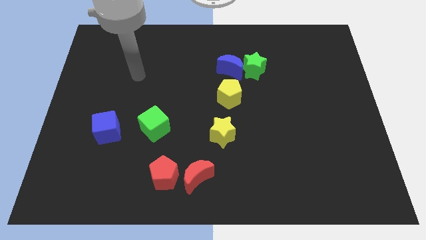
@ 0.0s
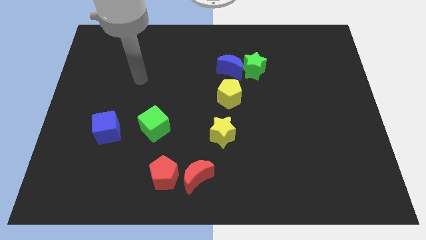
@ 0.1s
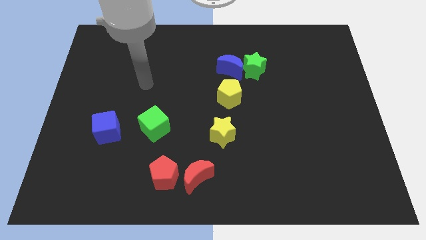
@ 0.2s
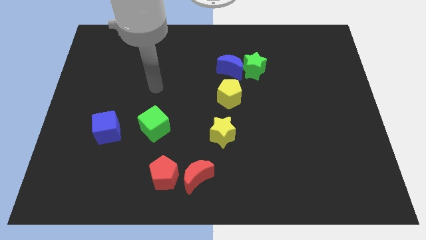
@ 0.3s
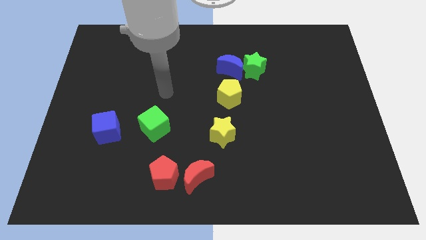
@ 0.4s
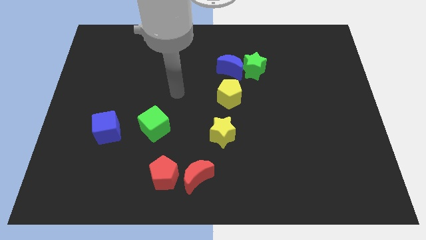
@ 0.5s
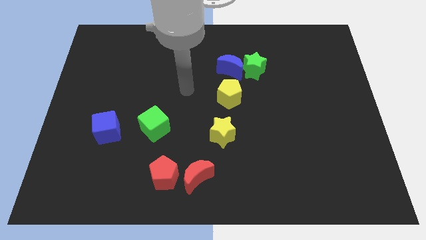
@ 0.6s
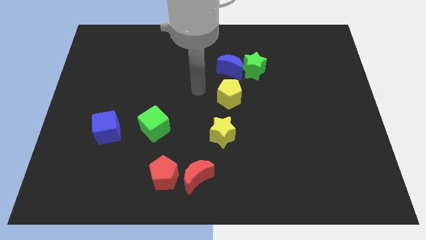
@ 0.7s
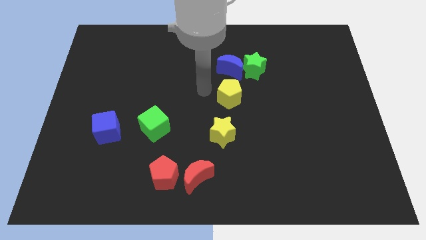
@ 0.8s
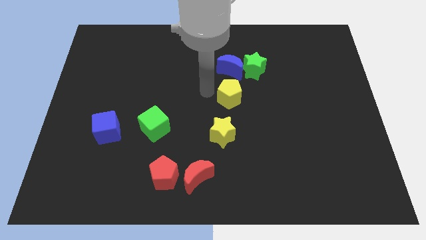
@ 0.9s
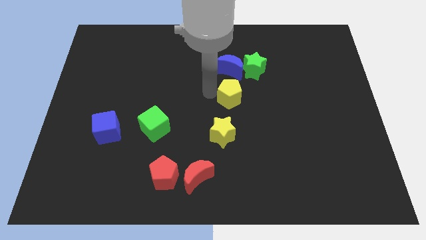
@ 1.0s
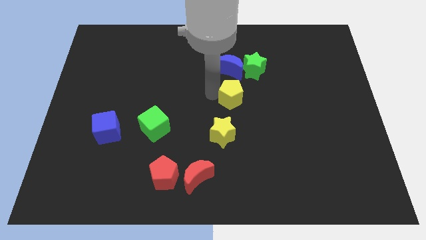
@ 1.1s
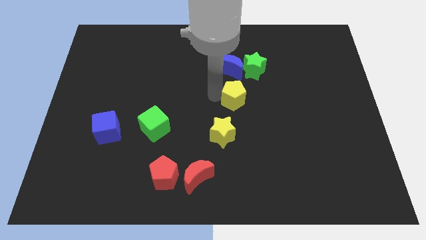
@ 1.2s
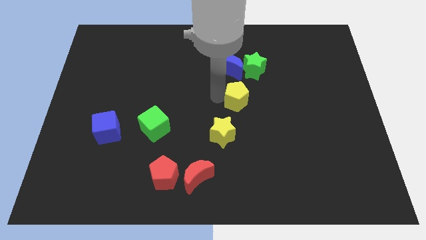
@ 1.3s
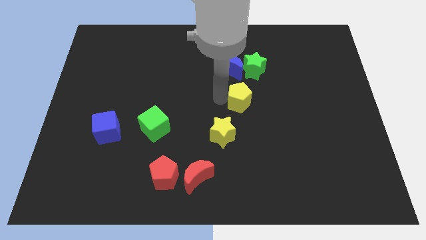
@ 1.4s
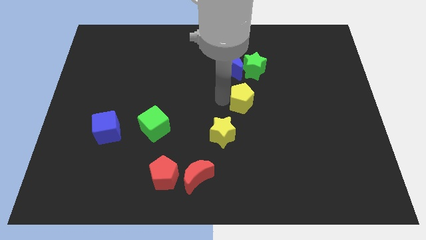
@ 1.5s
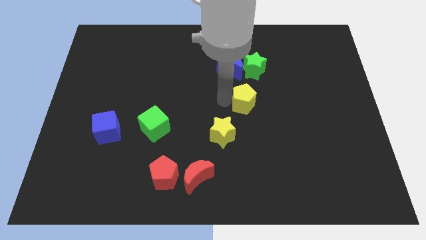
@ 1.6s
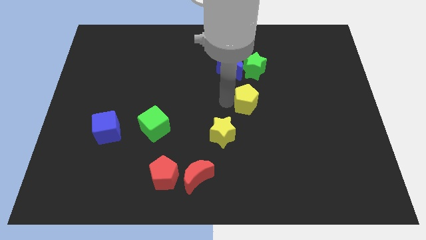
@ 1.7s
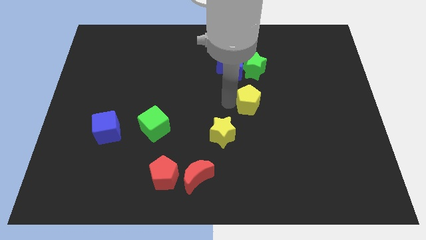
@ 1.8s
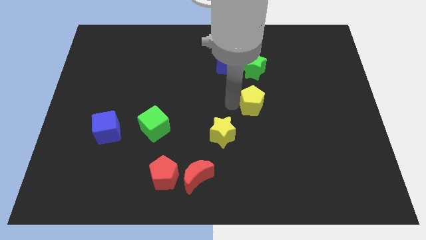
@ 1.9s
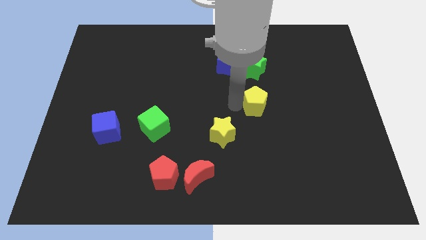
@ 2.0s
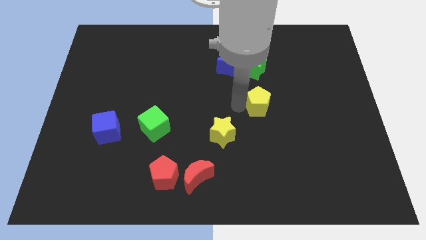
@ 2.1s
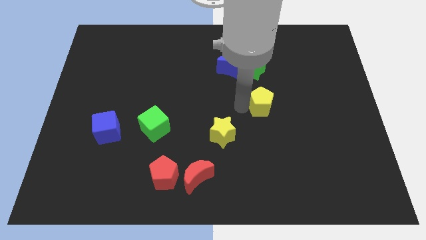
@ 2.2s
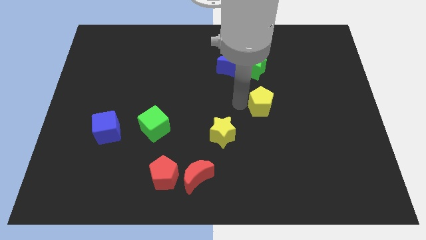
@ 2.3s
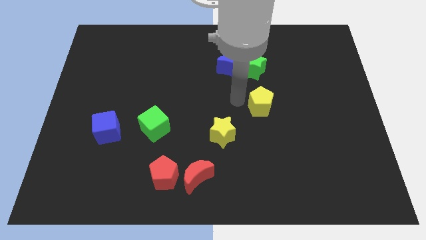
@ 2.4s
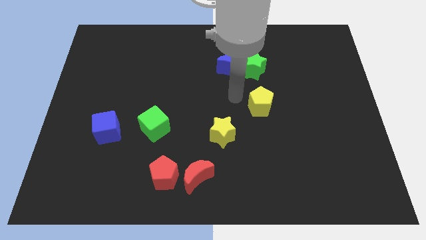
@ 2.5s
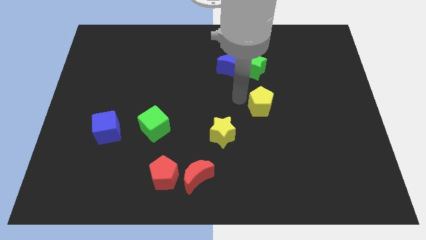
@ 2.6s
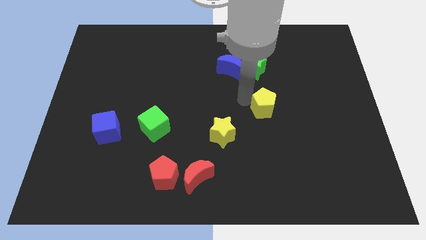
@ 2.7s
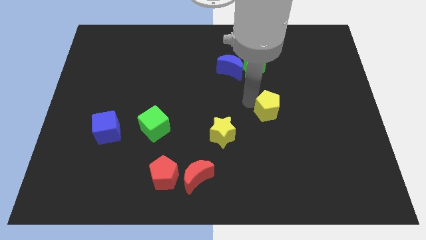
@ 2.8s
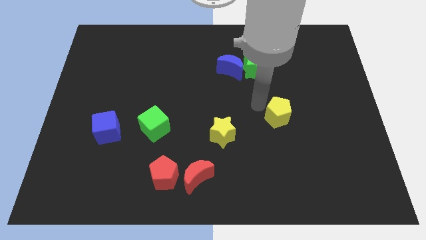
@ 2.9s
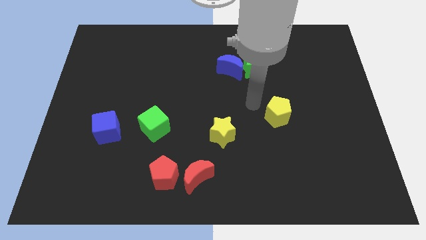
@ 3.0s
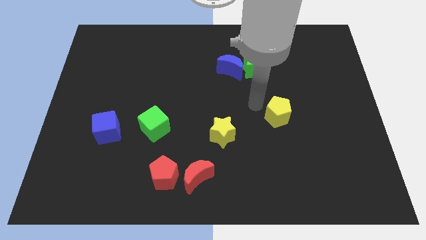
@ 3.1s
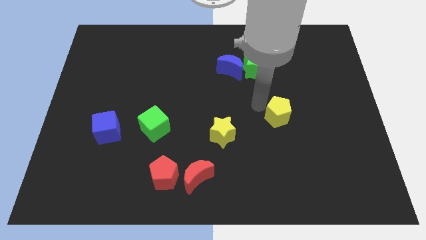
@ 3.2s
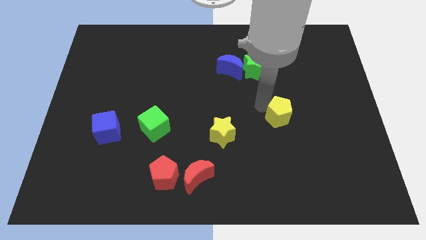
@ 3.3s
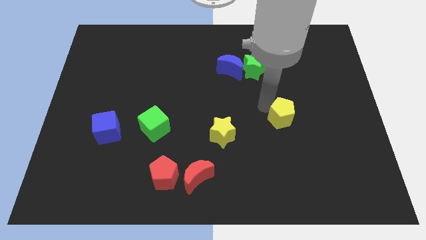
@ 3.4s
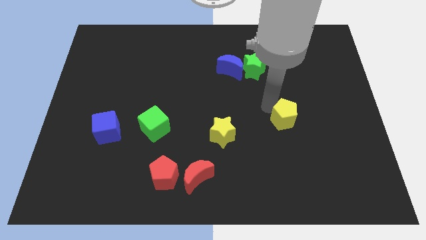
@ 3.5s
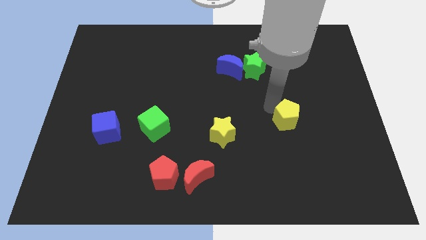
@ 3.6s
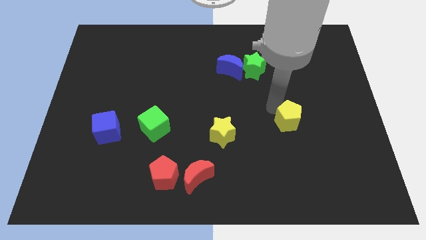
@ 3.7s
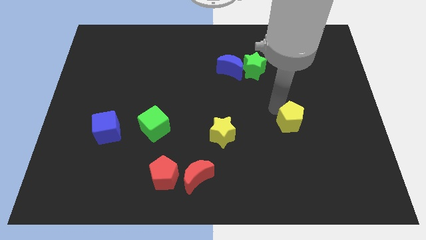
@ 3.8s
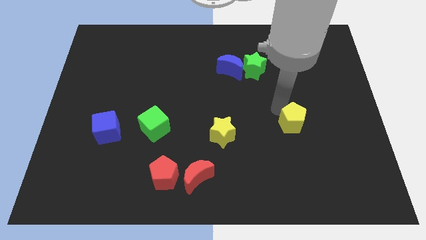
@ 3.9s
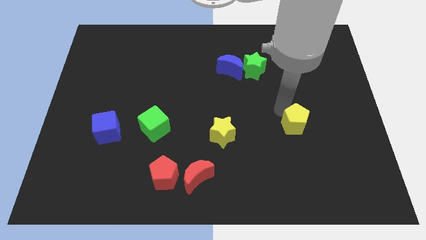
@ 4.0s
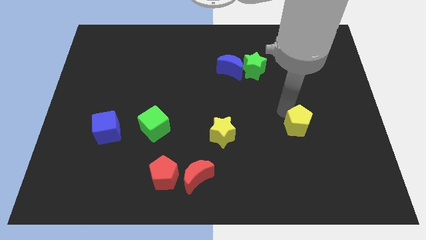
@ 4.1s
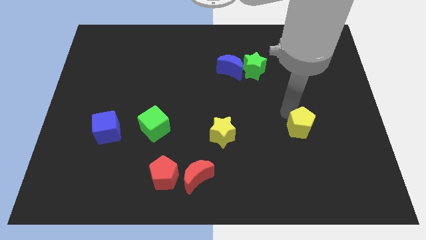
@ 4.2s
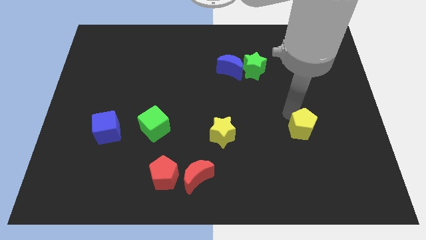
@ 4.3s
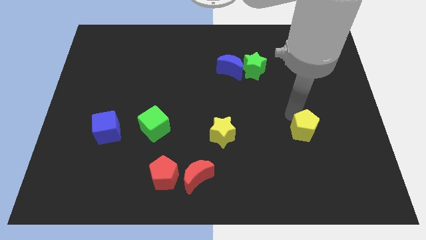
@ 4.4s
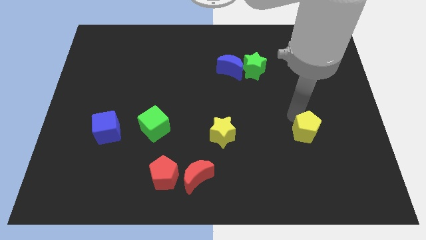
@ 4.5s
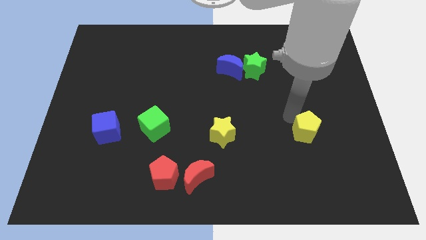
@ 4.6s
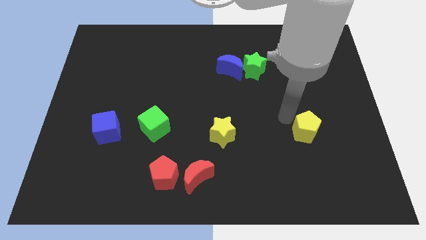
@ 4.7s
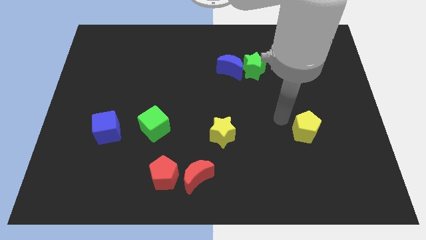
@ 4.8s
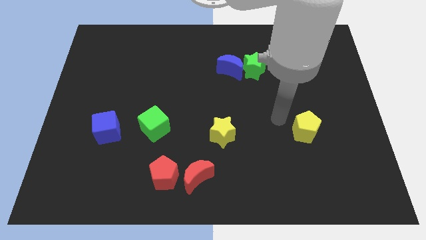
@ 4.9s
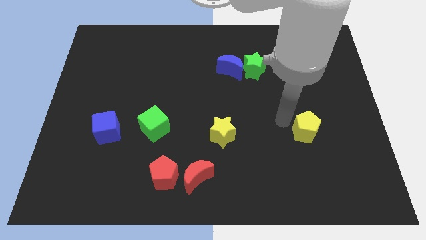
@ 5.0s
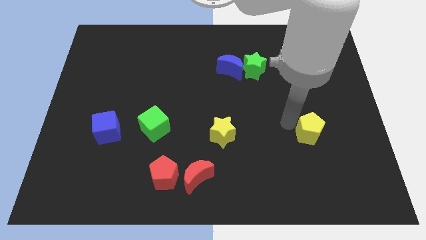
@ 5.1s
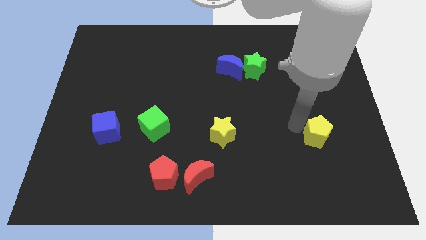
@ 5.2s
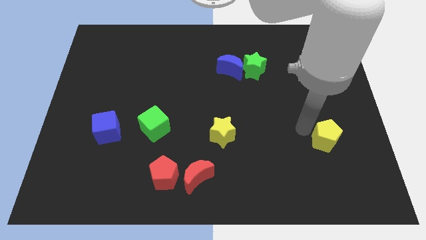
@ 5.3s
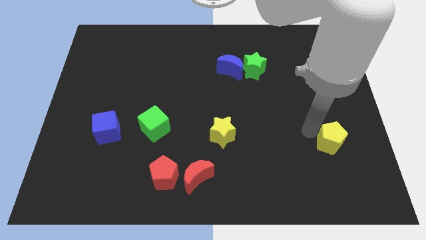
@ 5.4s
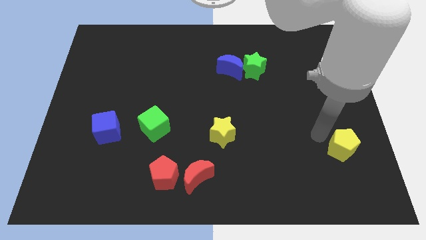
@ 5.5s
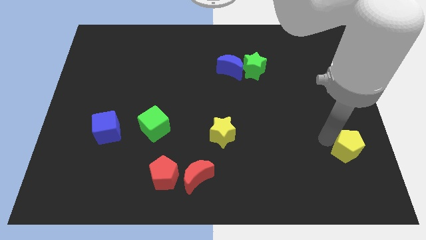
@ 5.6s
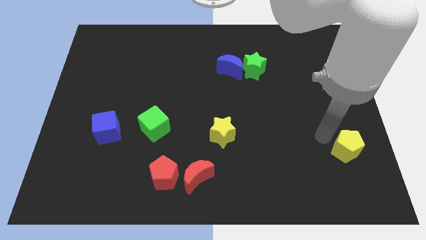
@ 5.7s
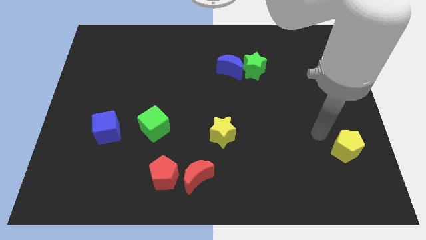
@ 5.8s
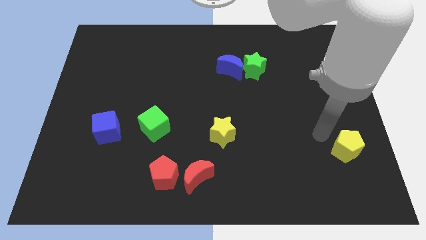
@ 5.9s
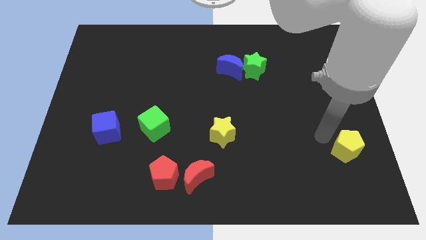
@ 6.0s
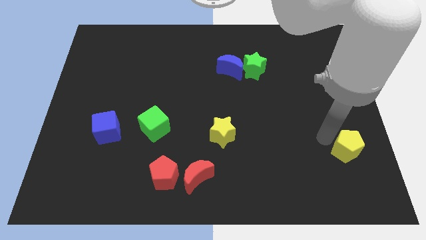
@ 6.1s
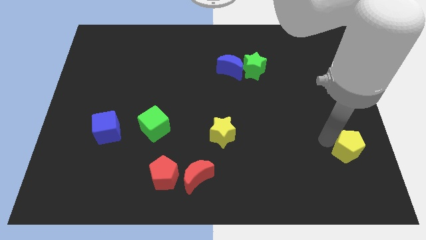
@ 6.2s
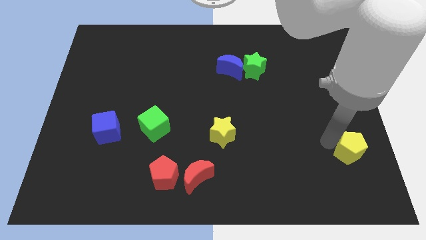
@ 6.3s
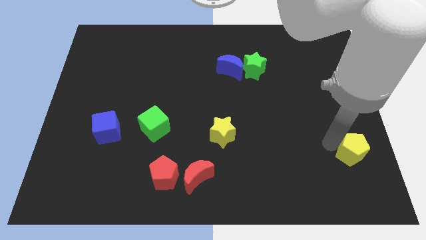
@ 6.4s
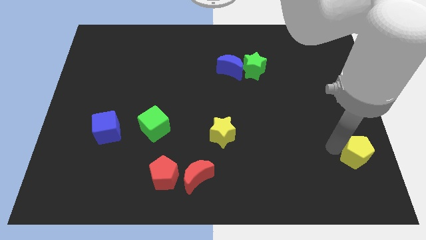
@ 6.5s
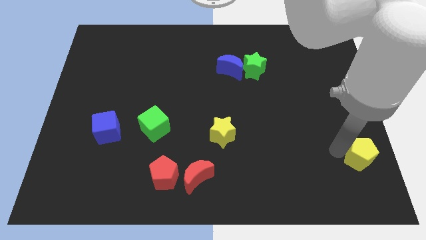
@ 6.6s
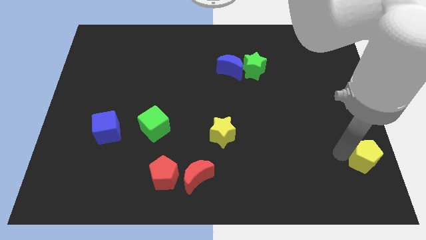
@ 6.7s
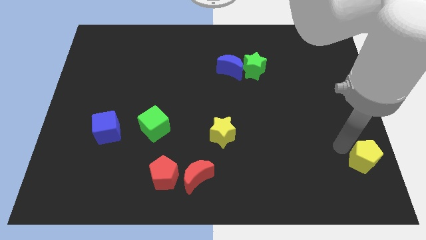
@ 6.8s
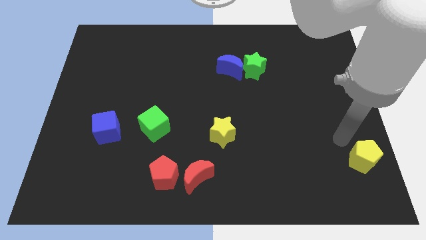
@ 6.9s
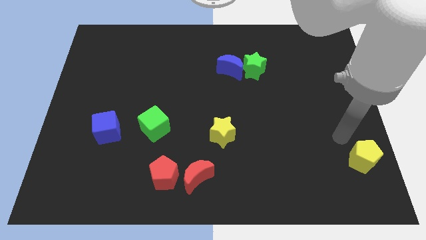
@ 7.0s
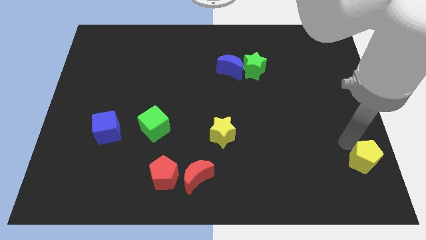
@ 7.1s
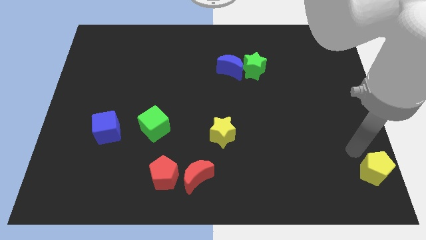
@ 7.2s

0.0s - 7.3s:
move the yellow pentagon to the bottom right of the board
